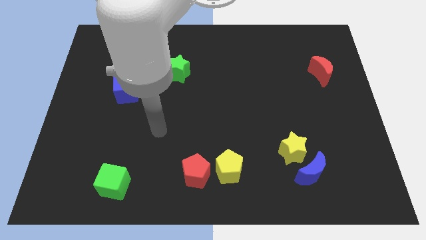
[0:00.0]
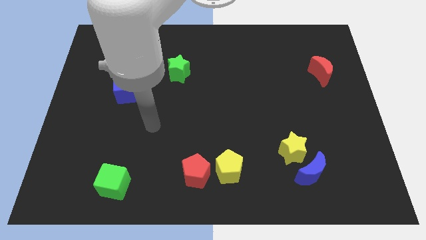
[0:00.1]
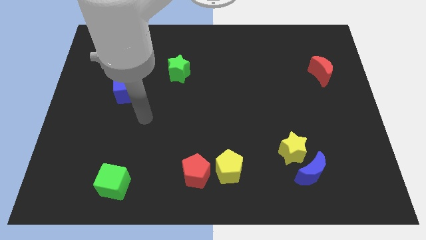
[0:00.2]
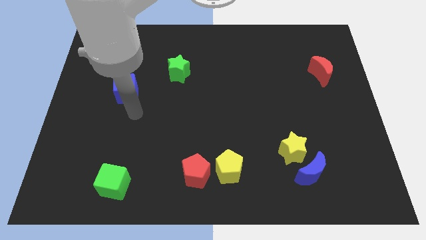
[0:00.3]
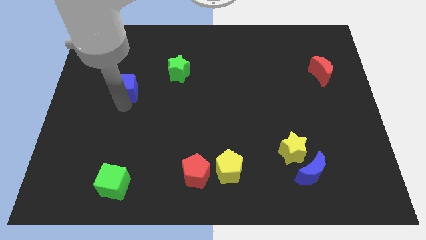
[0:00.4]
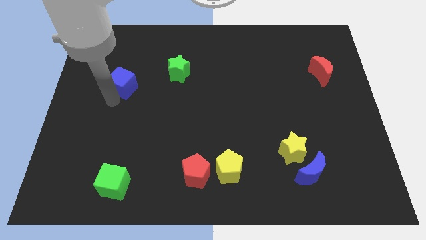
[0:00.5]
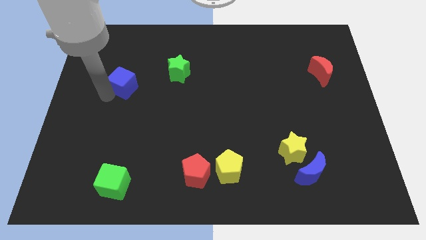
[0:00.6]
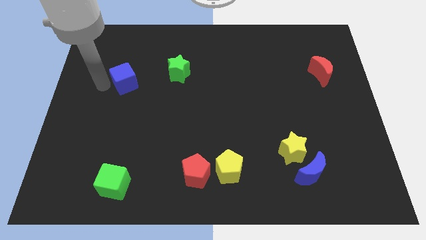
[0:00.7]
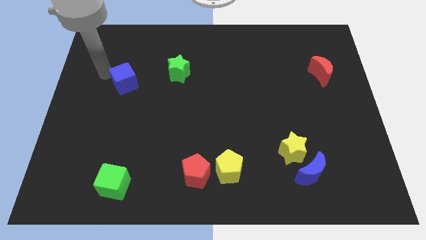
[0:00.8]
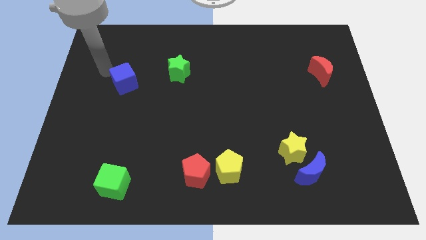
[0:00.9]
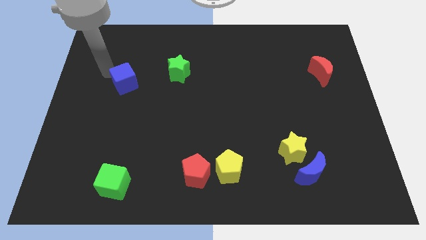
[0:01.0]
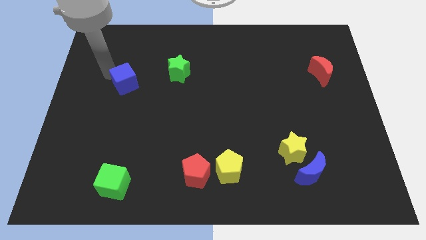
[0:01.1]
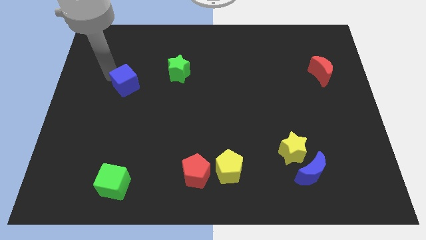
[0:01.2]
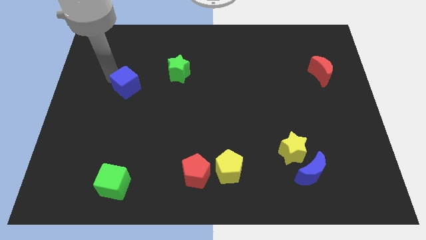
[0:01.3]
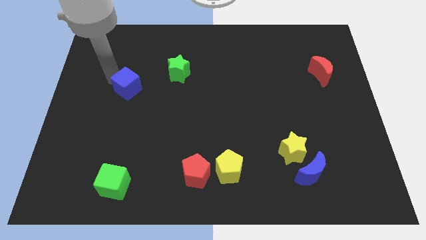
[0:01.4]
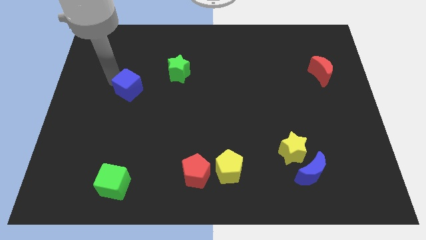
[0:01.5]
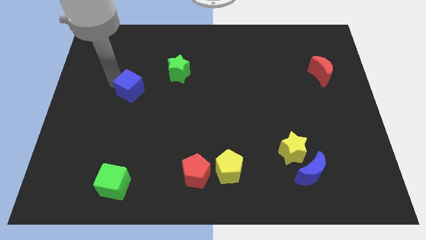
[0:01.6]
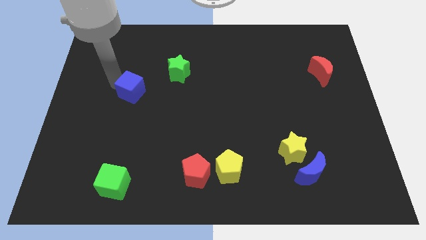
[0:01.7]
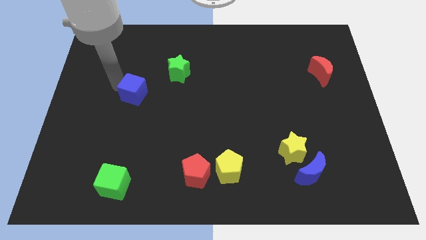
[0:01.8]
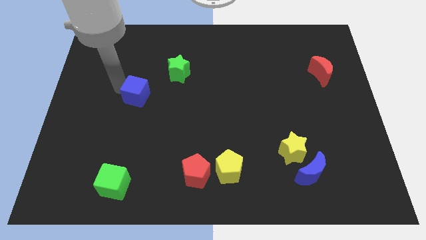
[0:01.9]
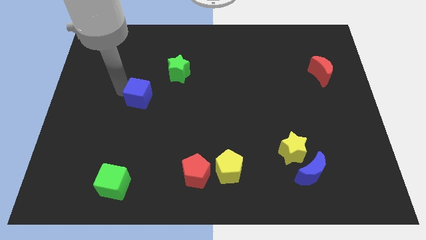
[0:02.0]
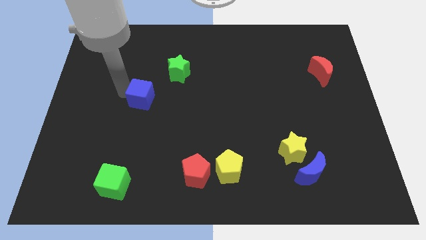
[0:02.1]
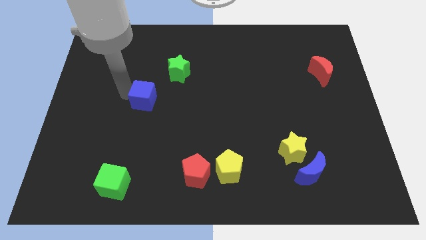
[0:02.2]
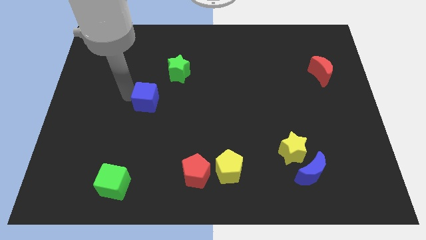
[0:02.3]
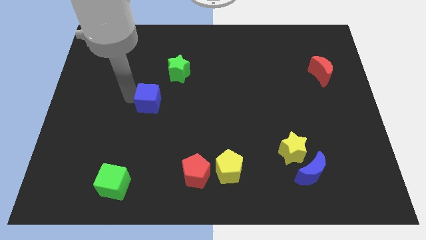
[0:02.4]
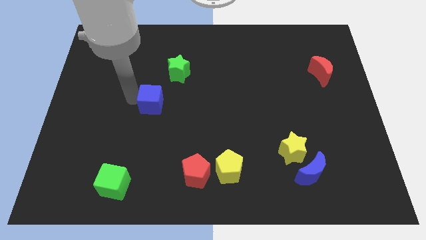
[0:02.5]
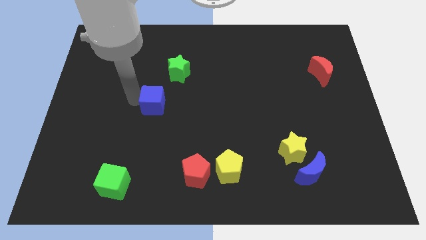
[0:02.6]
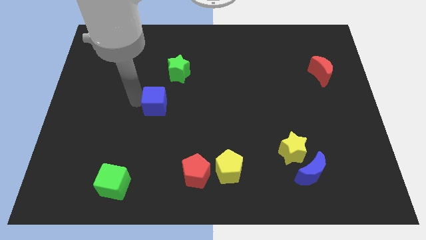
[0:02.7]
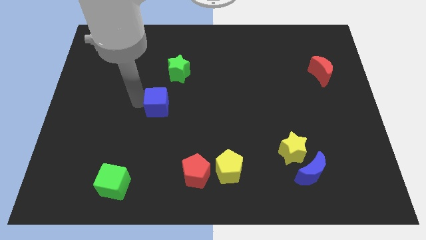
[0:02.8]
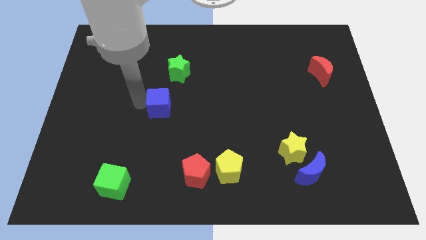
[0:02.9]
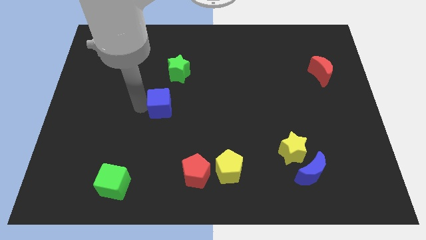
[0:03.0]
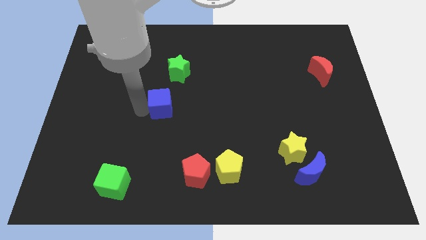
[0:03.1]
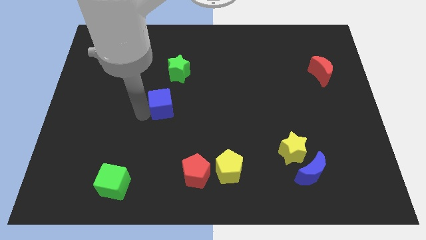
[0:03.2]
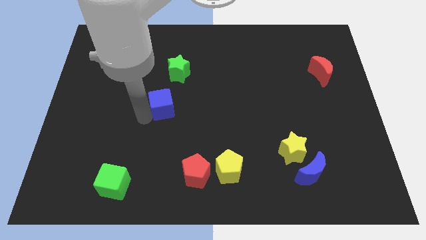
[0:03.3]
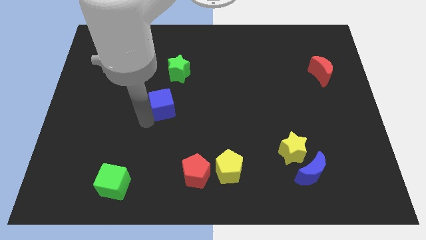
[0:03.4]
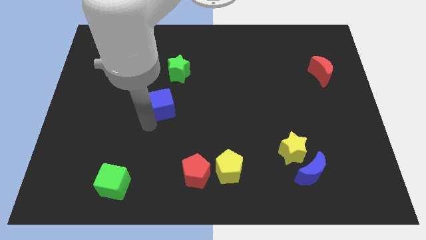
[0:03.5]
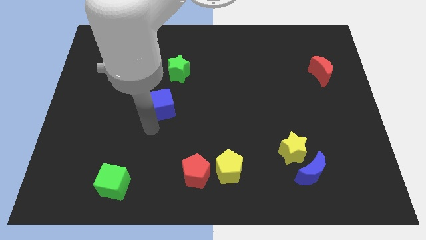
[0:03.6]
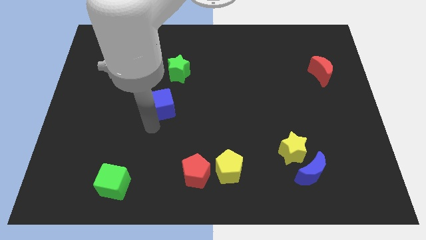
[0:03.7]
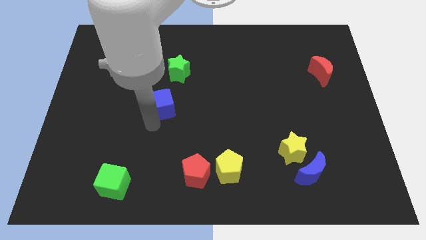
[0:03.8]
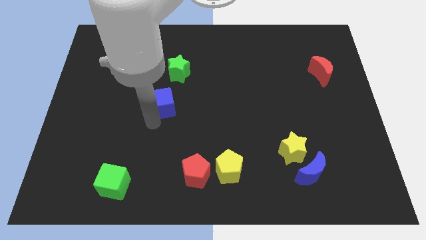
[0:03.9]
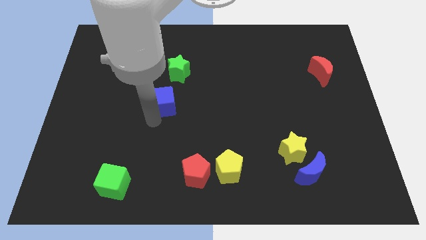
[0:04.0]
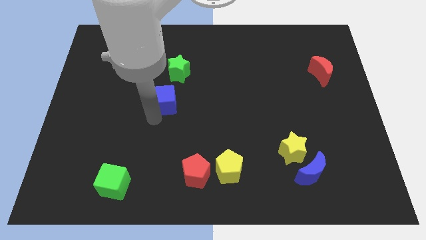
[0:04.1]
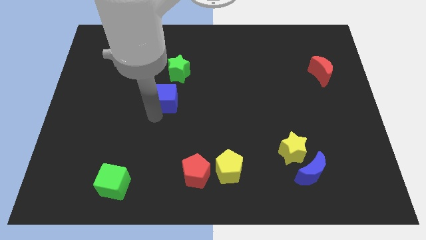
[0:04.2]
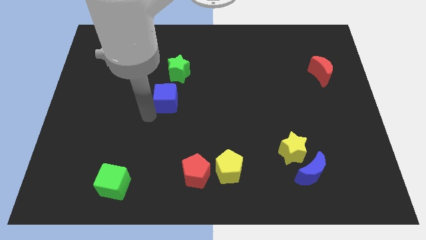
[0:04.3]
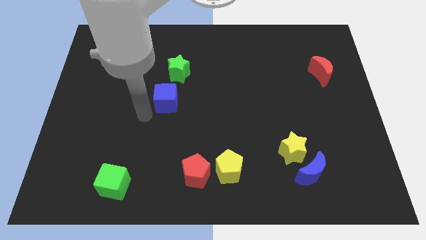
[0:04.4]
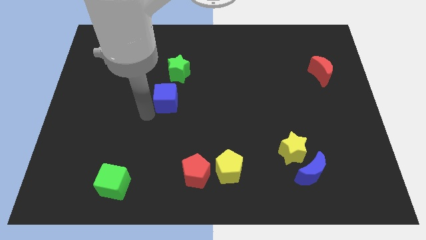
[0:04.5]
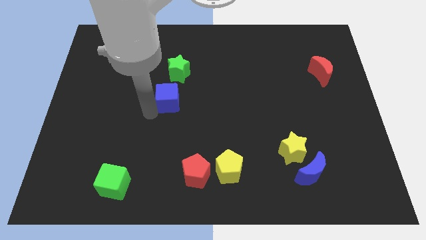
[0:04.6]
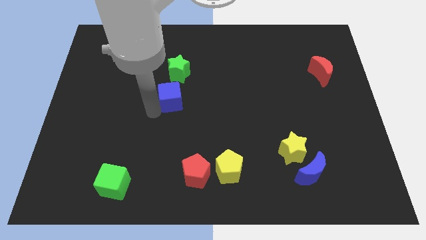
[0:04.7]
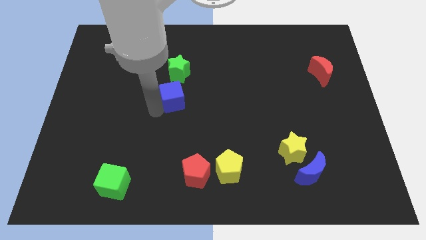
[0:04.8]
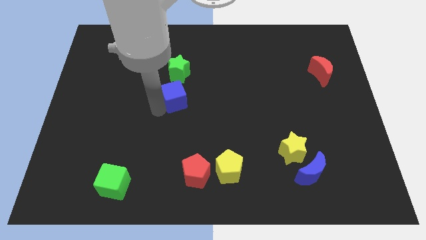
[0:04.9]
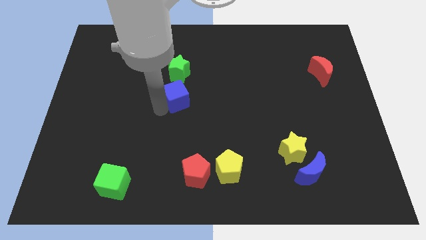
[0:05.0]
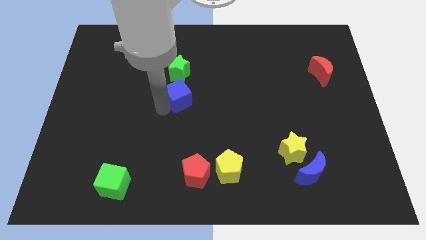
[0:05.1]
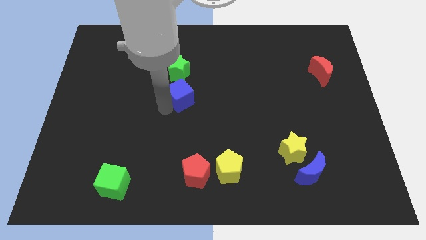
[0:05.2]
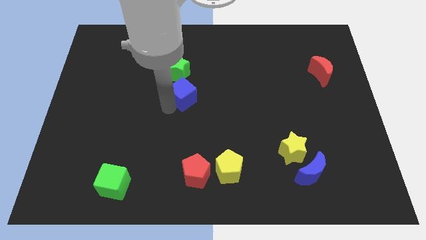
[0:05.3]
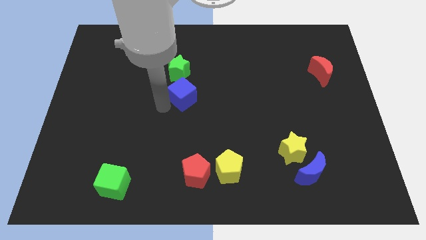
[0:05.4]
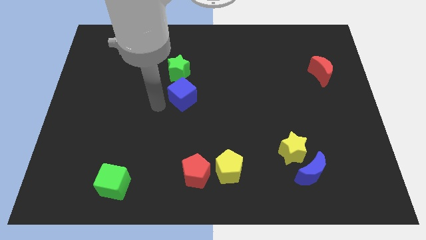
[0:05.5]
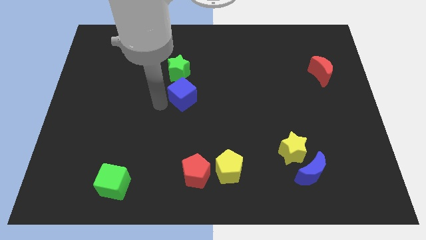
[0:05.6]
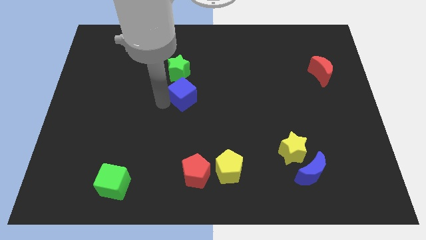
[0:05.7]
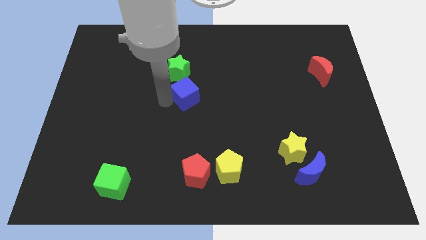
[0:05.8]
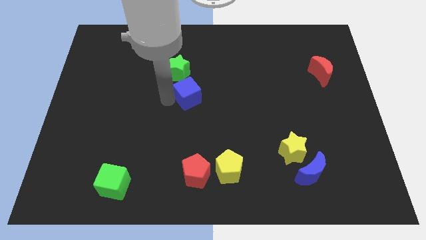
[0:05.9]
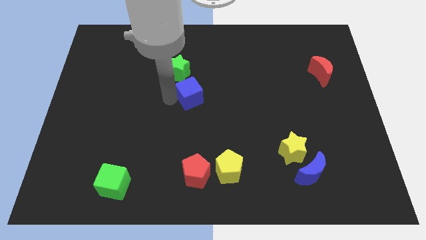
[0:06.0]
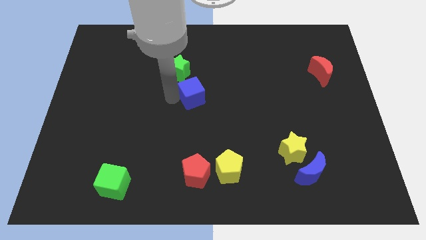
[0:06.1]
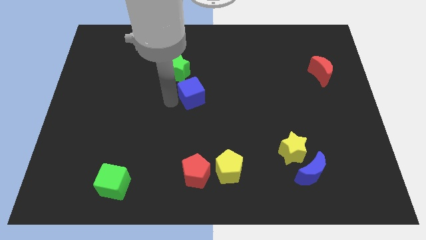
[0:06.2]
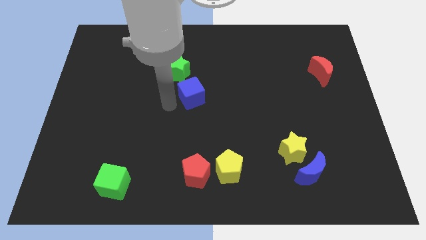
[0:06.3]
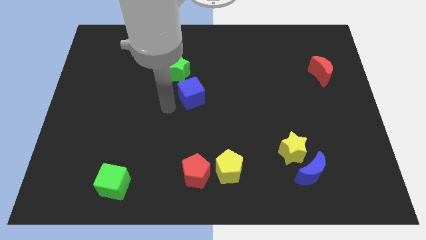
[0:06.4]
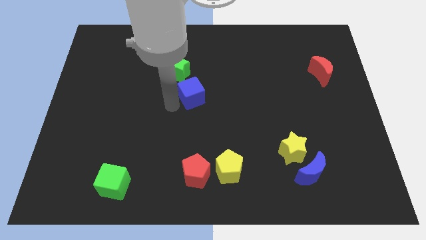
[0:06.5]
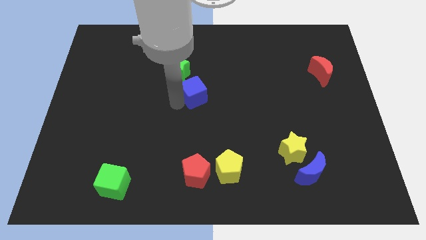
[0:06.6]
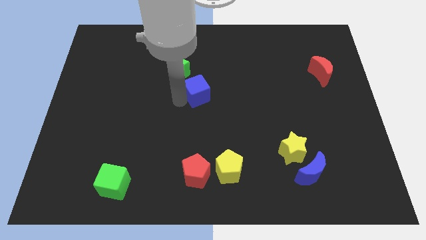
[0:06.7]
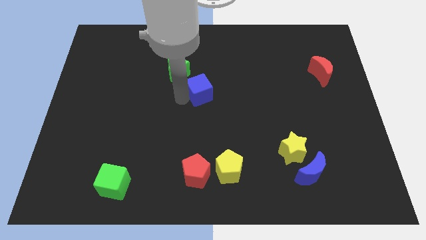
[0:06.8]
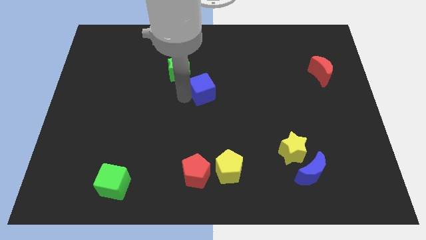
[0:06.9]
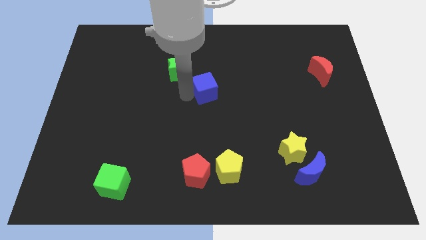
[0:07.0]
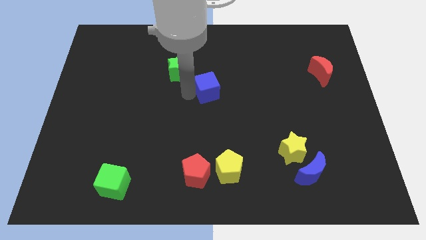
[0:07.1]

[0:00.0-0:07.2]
push the blue cube to the right

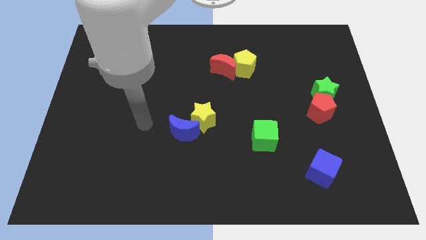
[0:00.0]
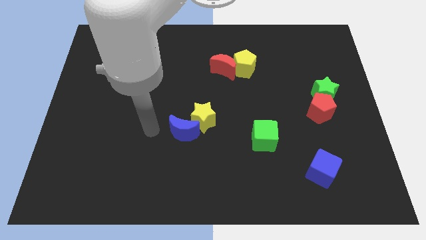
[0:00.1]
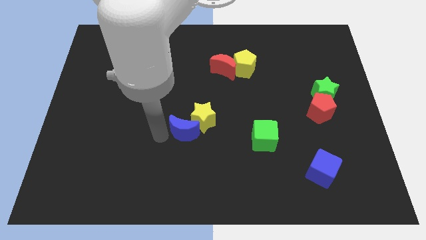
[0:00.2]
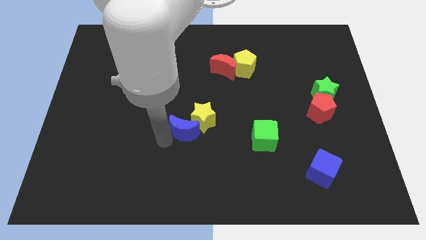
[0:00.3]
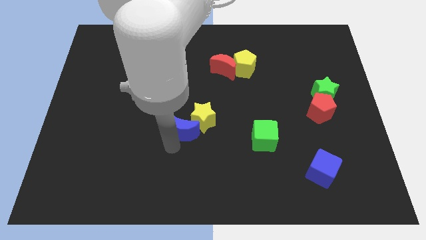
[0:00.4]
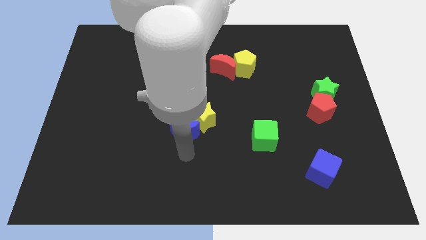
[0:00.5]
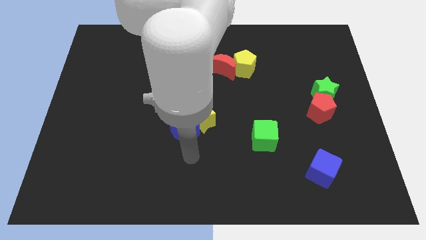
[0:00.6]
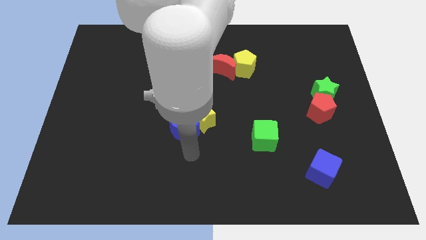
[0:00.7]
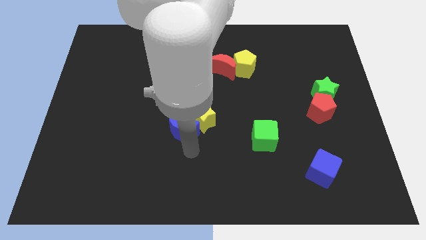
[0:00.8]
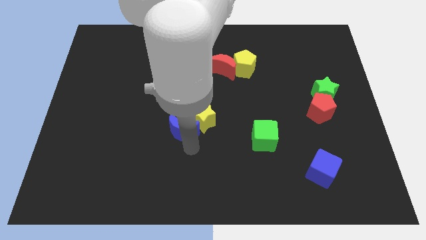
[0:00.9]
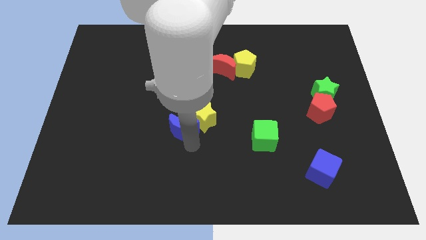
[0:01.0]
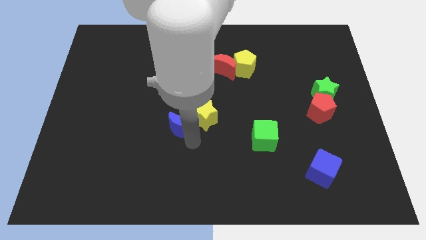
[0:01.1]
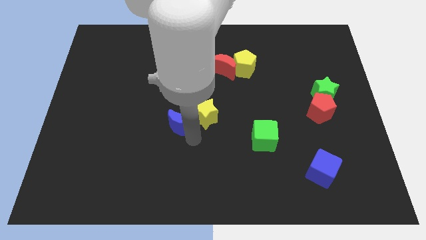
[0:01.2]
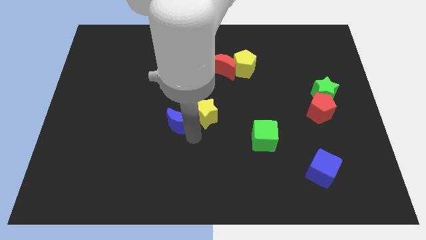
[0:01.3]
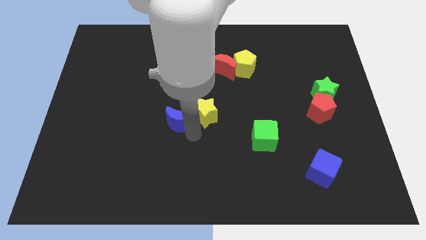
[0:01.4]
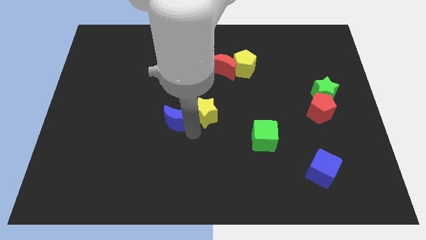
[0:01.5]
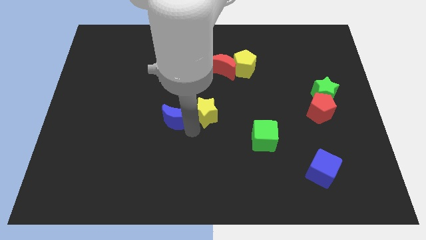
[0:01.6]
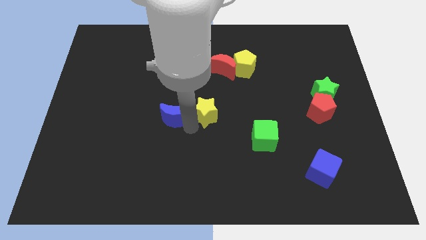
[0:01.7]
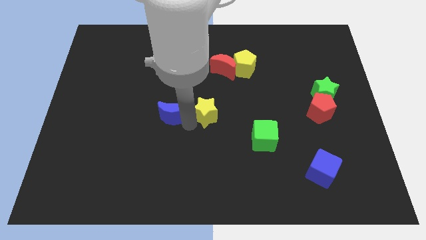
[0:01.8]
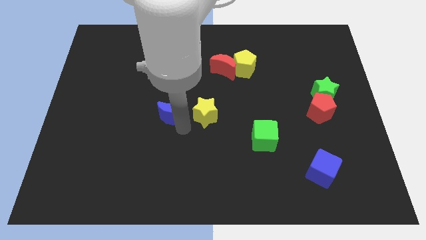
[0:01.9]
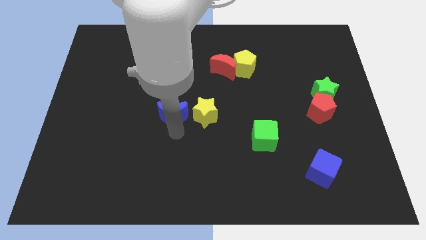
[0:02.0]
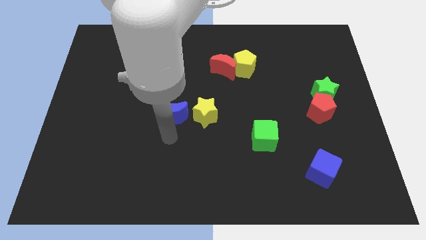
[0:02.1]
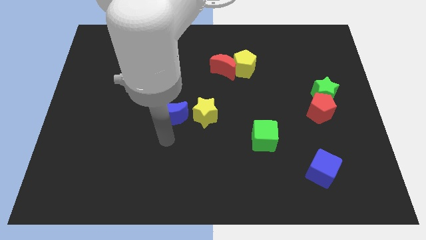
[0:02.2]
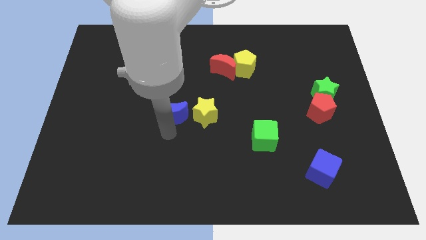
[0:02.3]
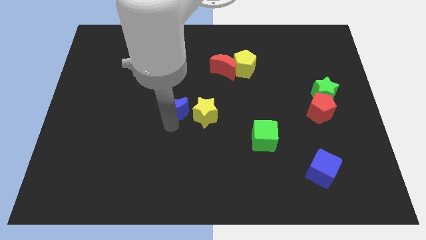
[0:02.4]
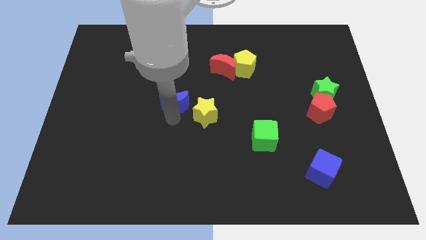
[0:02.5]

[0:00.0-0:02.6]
move the blue moon somewhat up
